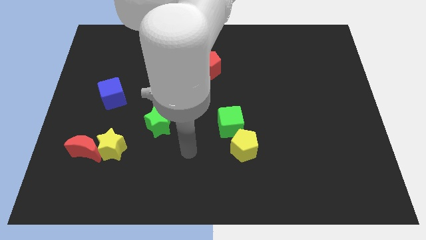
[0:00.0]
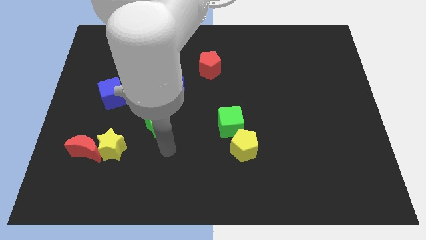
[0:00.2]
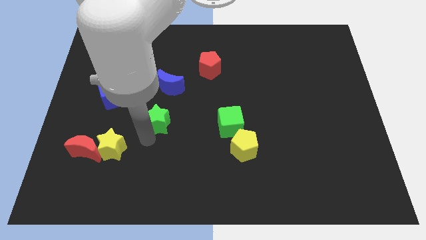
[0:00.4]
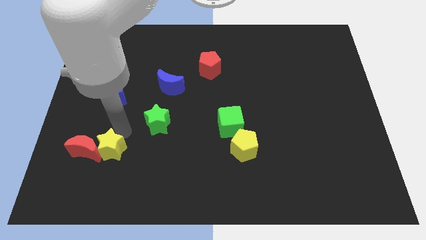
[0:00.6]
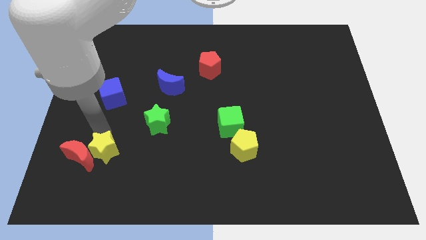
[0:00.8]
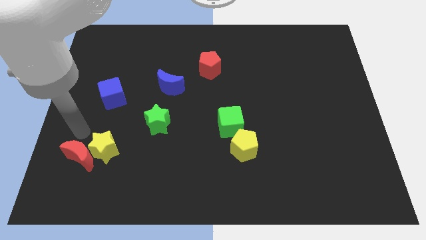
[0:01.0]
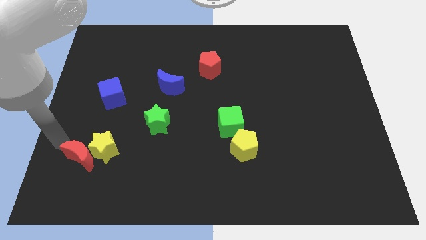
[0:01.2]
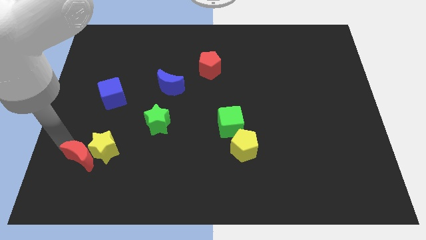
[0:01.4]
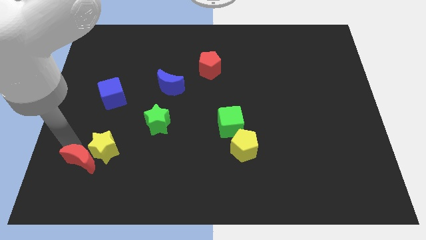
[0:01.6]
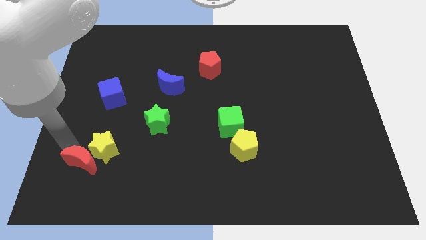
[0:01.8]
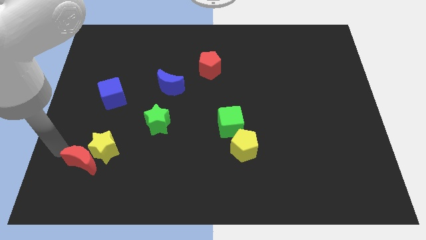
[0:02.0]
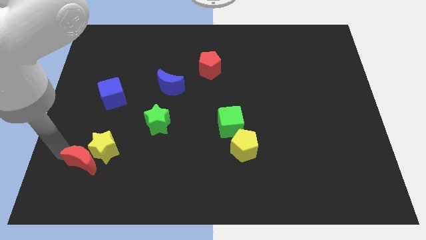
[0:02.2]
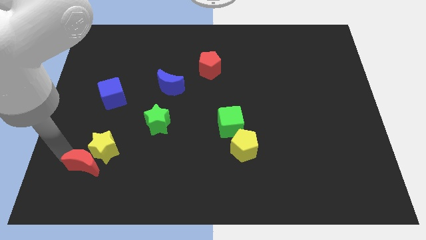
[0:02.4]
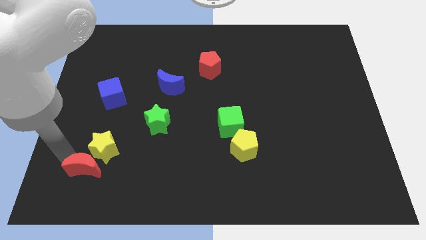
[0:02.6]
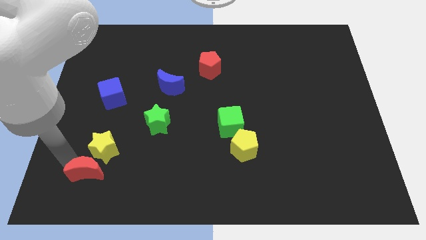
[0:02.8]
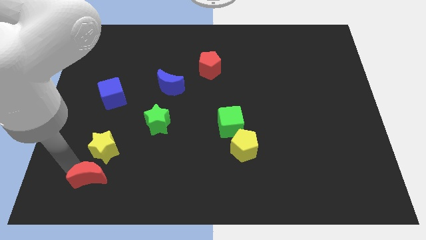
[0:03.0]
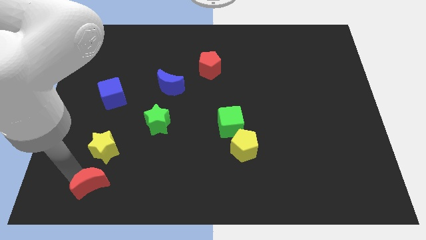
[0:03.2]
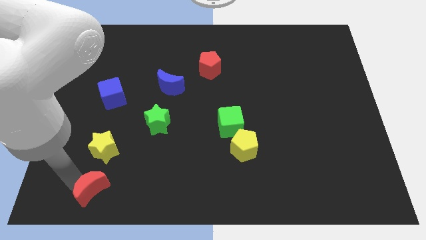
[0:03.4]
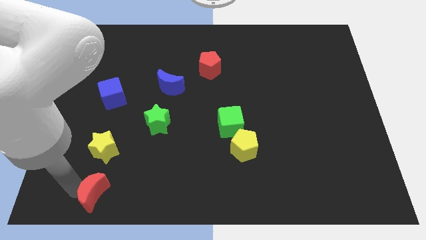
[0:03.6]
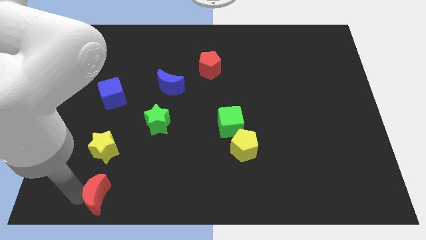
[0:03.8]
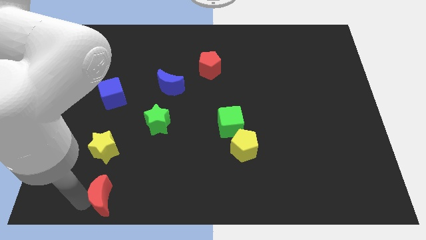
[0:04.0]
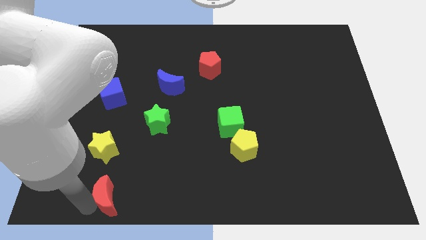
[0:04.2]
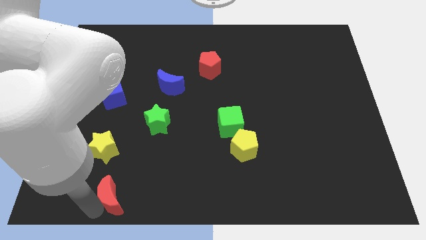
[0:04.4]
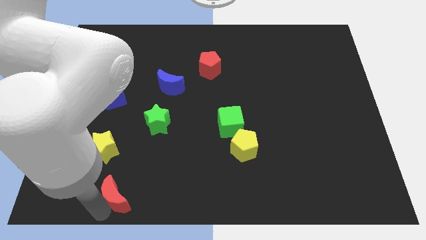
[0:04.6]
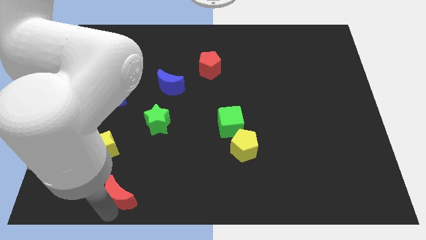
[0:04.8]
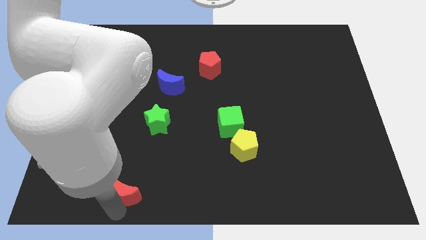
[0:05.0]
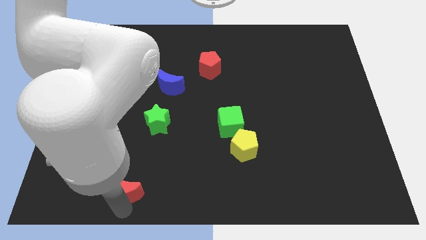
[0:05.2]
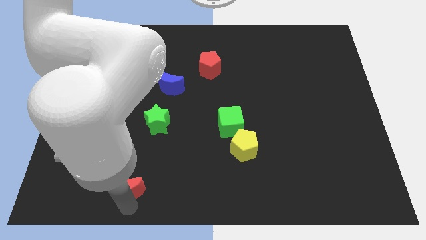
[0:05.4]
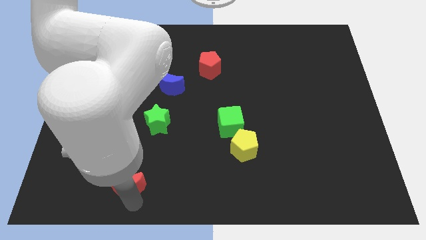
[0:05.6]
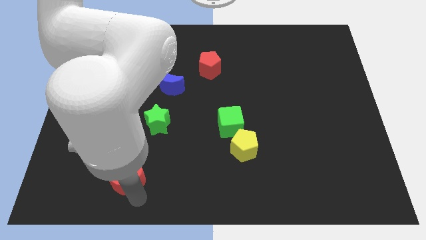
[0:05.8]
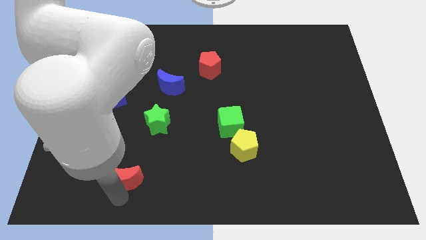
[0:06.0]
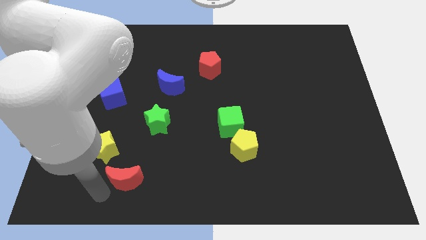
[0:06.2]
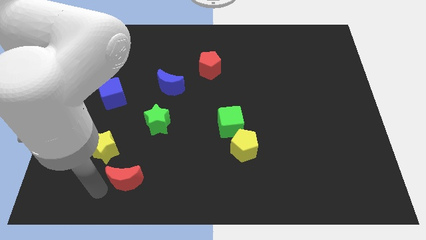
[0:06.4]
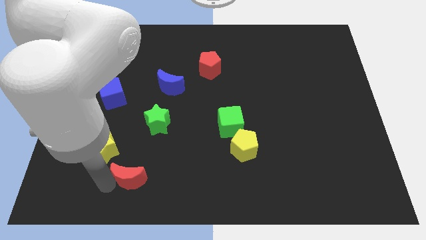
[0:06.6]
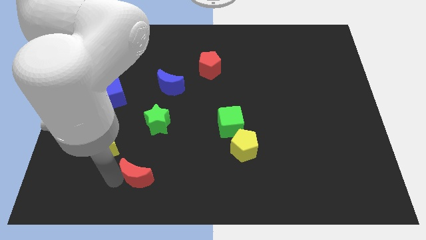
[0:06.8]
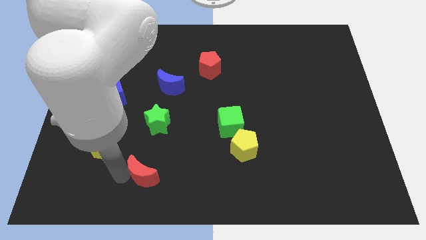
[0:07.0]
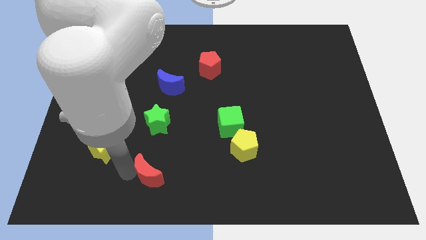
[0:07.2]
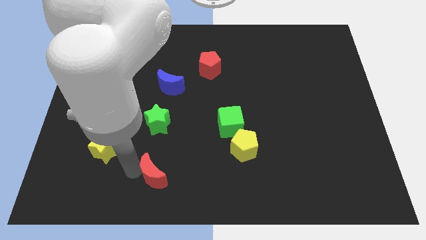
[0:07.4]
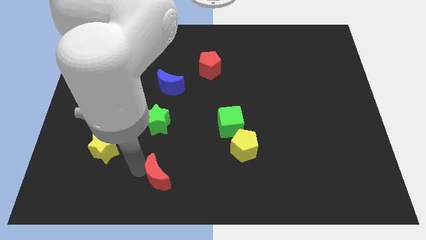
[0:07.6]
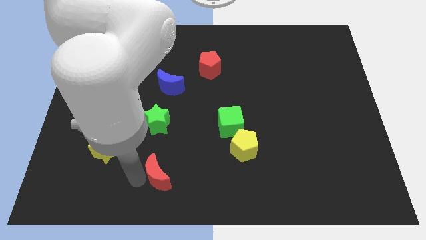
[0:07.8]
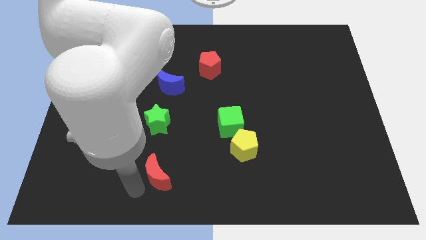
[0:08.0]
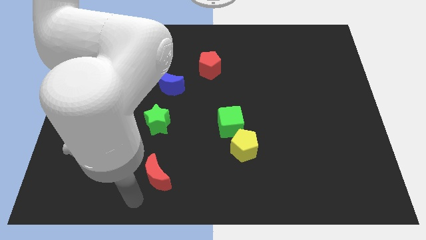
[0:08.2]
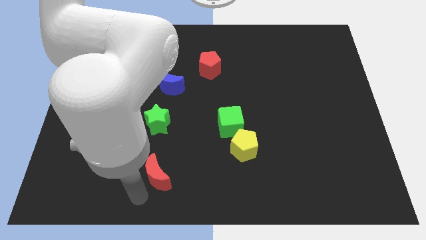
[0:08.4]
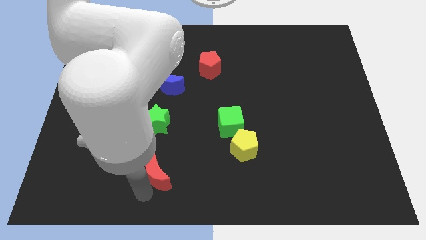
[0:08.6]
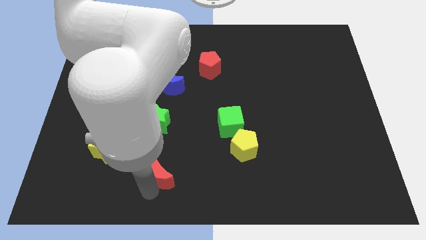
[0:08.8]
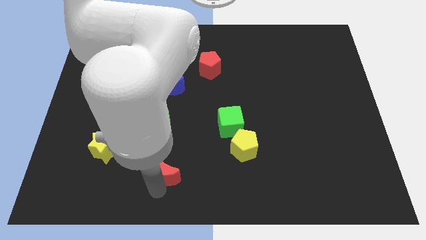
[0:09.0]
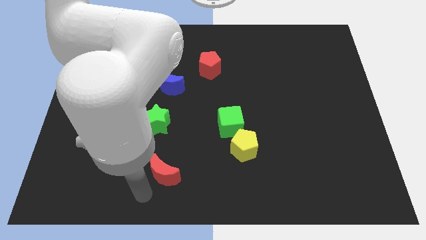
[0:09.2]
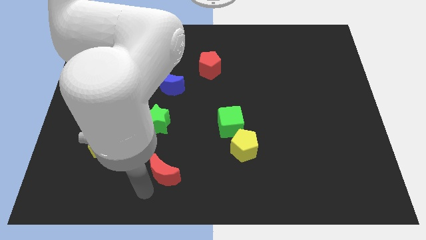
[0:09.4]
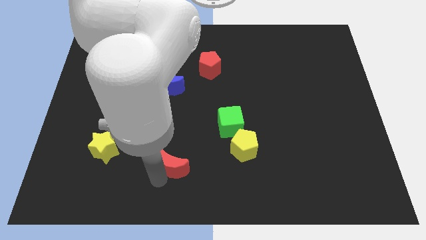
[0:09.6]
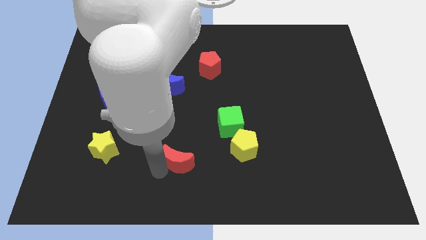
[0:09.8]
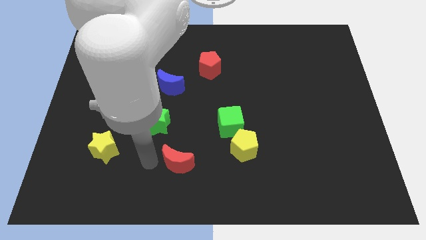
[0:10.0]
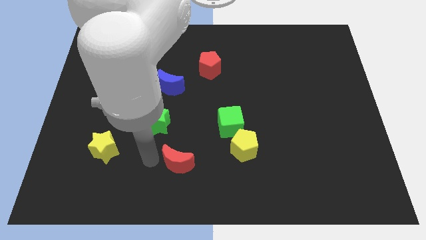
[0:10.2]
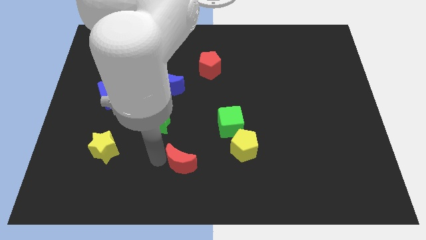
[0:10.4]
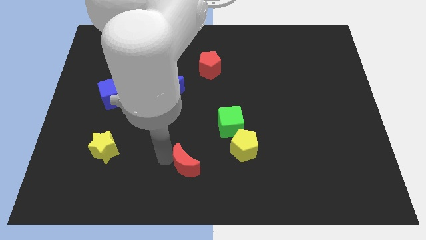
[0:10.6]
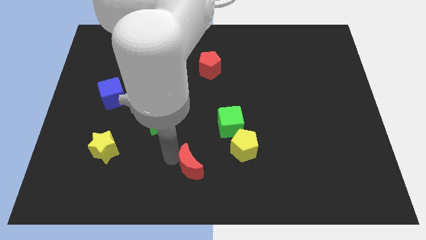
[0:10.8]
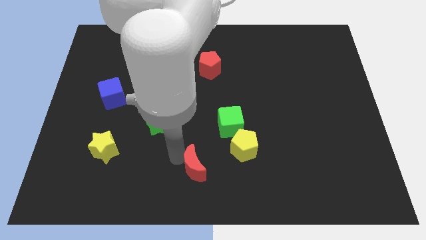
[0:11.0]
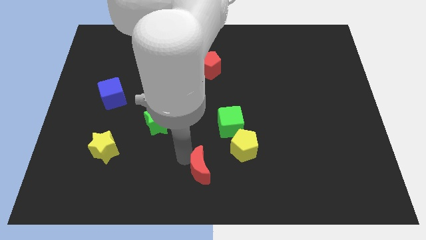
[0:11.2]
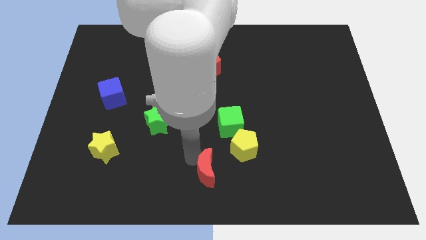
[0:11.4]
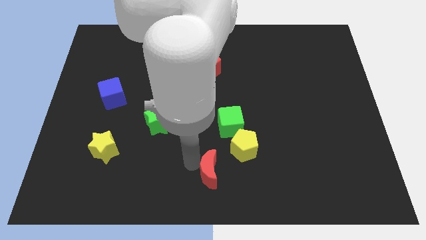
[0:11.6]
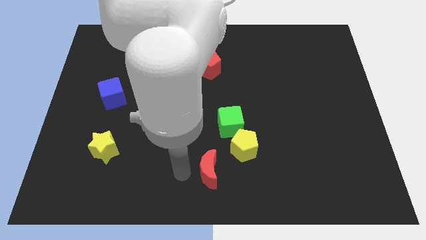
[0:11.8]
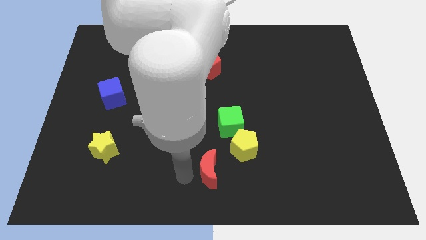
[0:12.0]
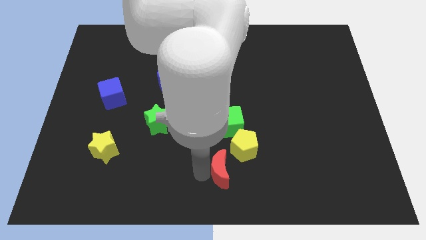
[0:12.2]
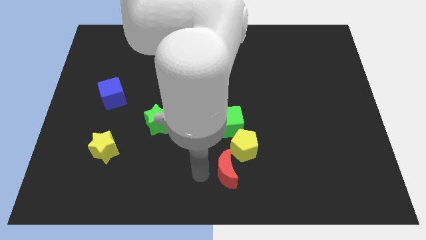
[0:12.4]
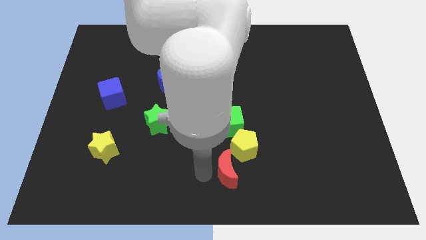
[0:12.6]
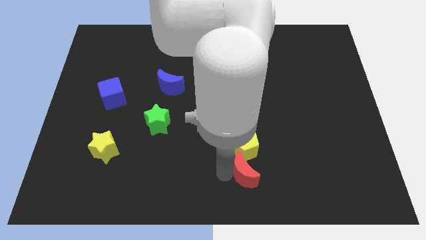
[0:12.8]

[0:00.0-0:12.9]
slide the red moon diagonally down and to the right of the yellow pentagon

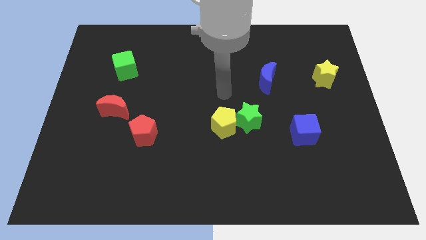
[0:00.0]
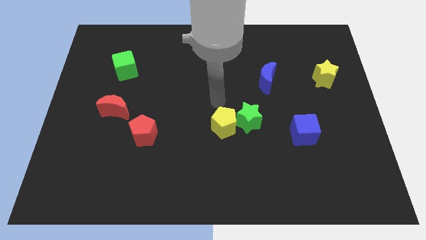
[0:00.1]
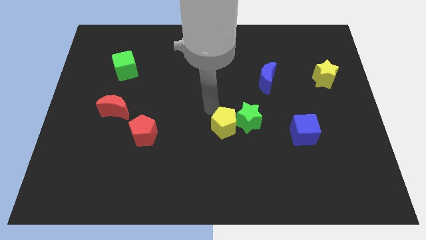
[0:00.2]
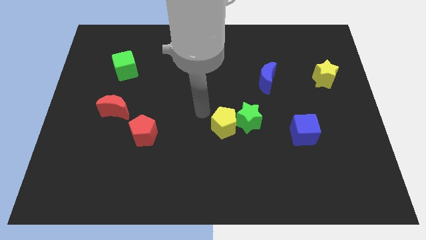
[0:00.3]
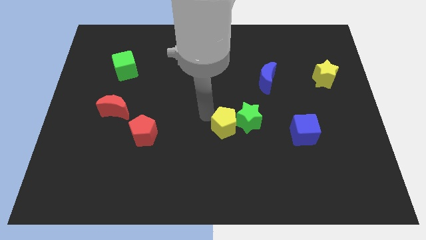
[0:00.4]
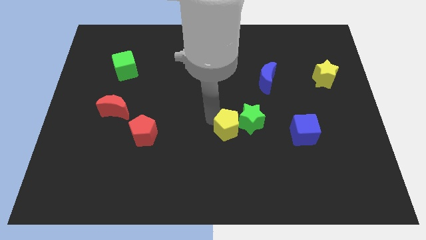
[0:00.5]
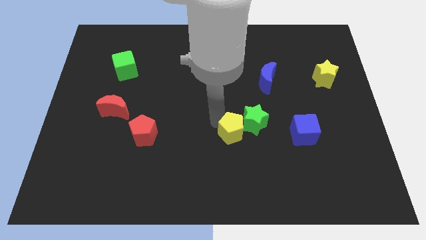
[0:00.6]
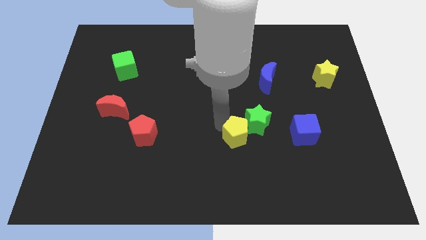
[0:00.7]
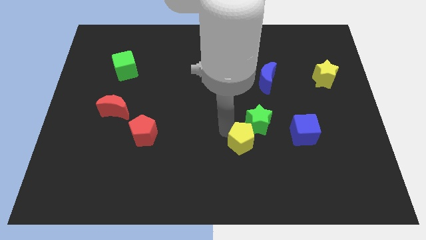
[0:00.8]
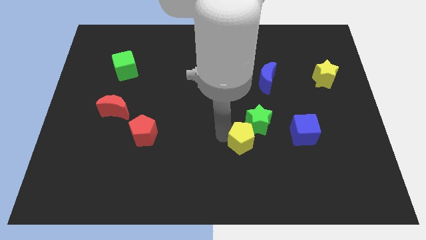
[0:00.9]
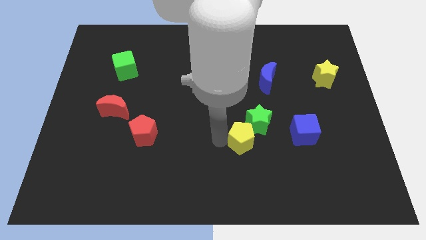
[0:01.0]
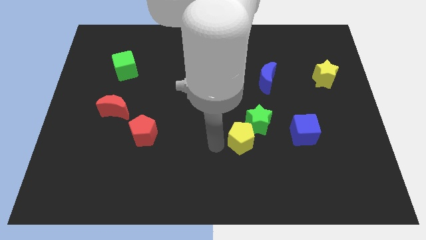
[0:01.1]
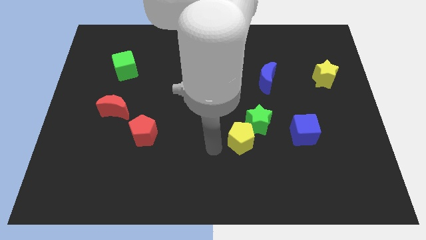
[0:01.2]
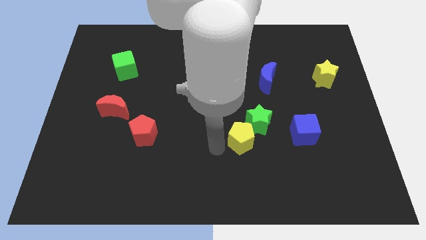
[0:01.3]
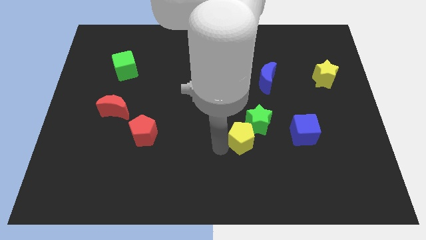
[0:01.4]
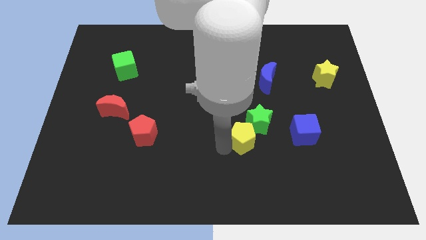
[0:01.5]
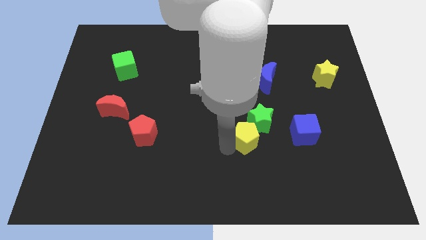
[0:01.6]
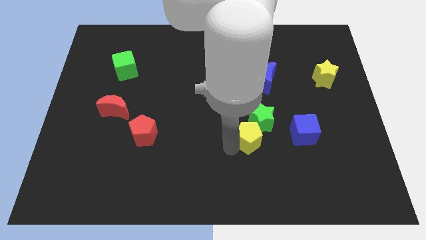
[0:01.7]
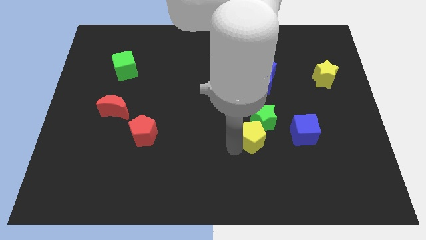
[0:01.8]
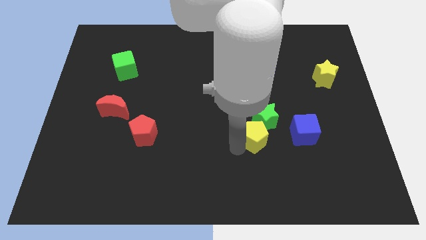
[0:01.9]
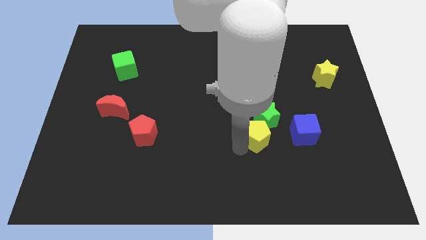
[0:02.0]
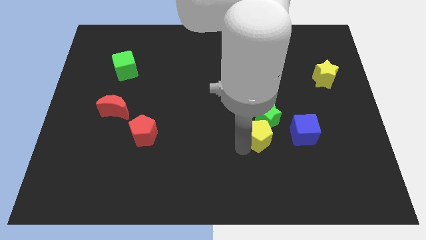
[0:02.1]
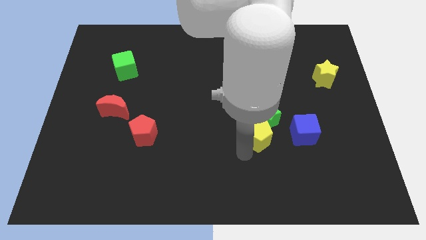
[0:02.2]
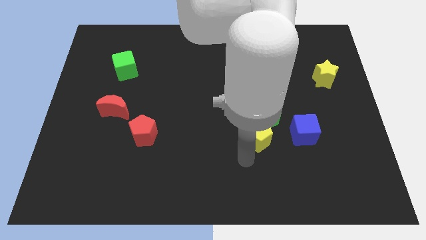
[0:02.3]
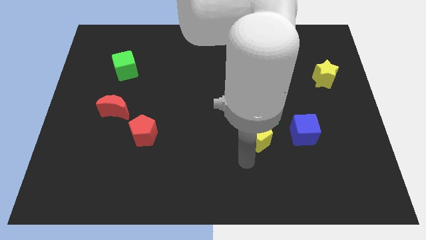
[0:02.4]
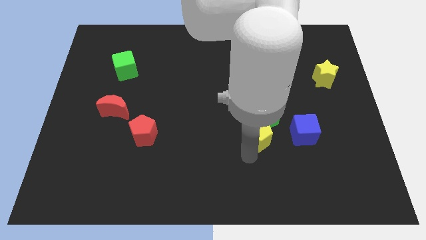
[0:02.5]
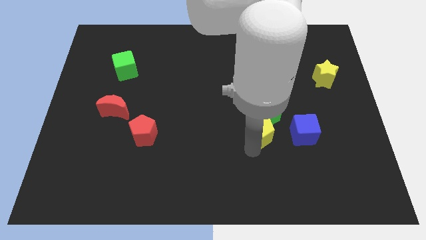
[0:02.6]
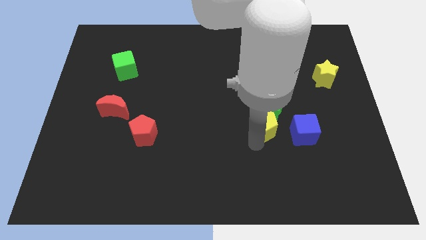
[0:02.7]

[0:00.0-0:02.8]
push the yellow pentagon to the bottom of the blue moon
